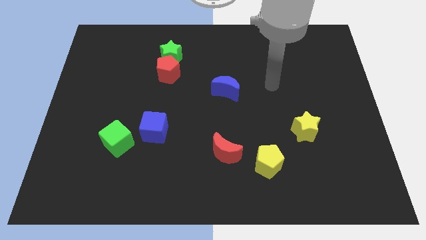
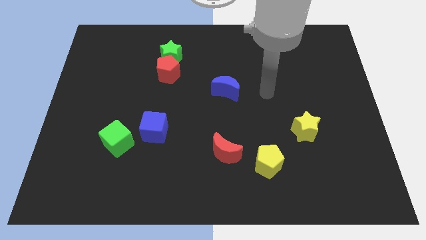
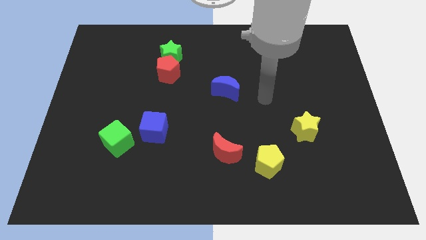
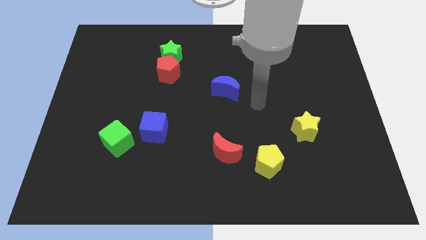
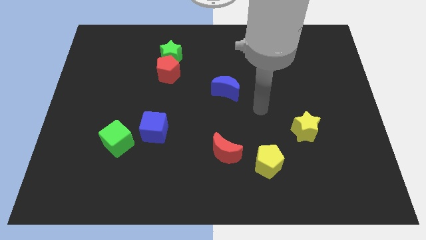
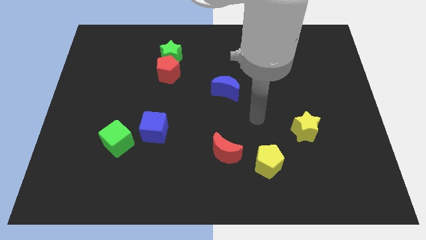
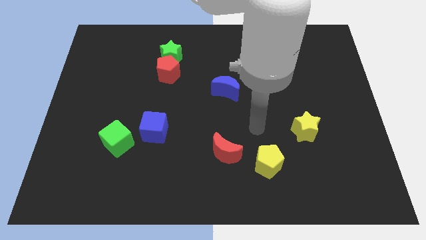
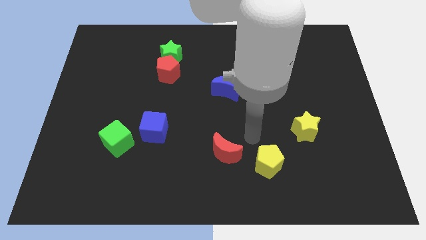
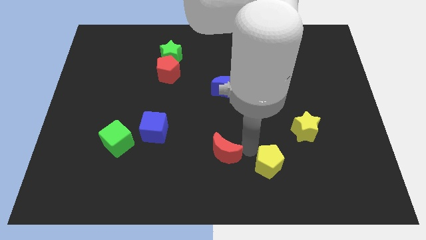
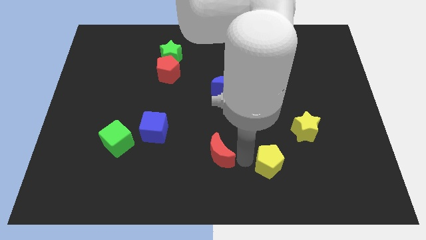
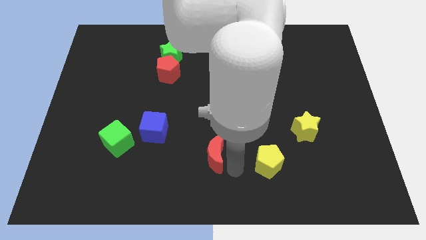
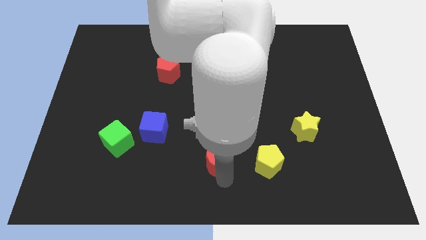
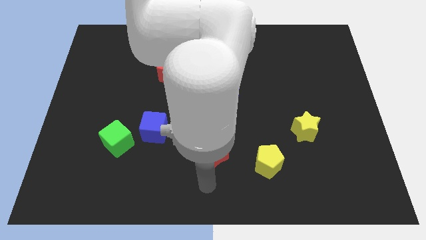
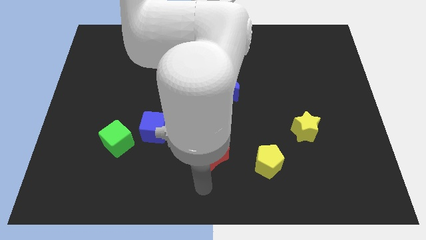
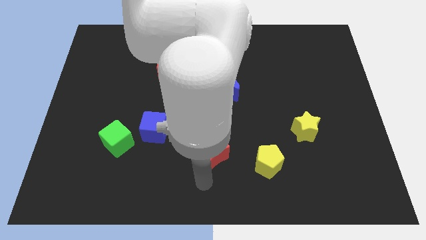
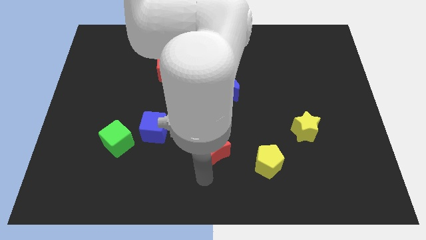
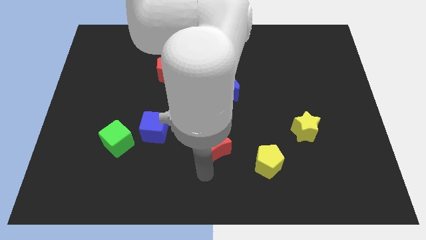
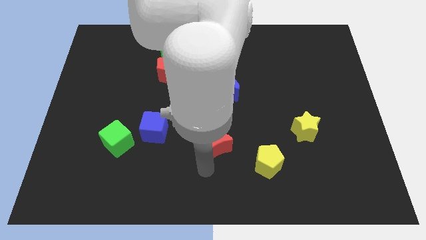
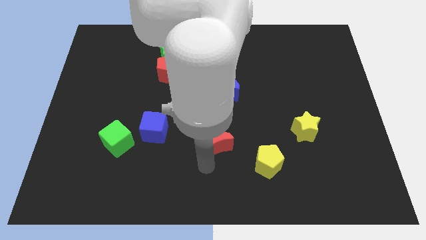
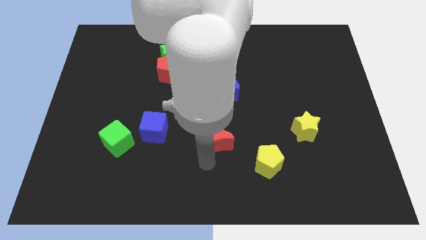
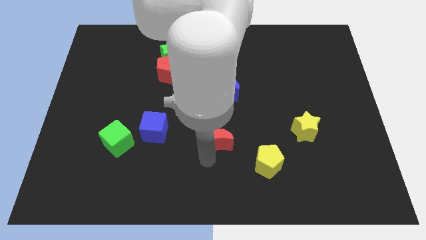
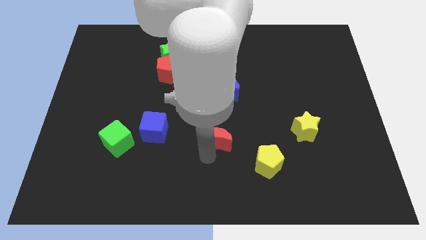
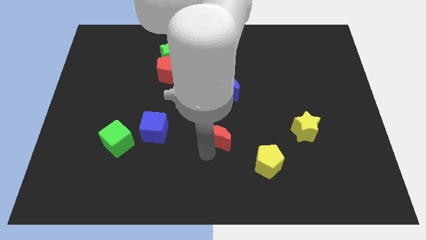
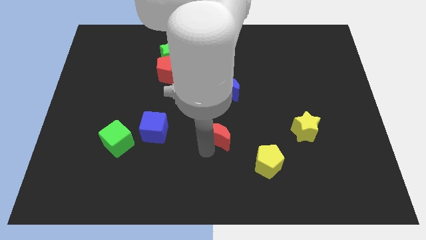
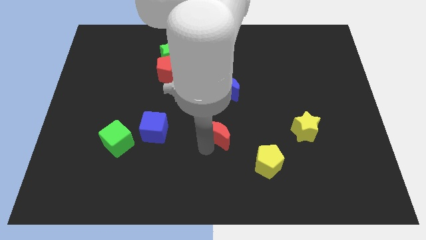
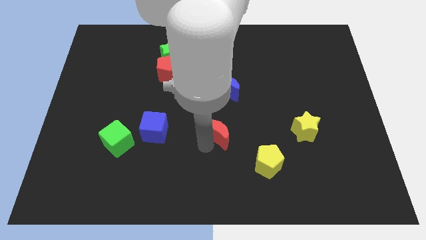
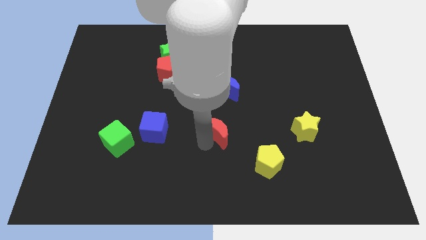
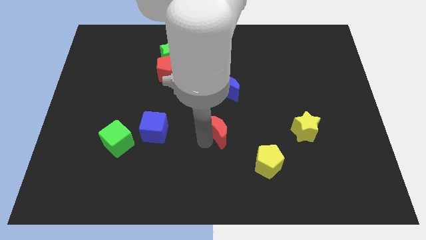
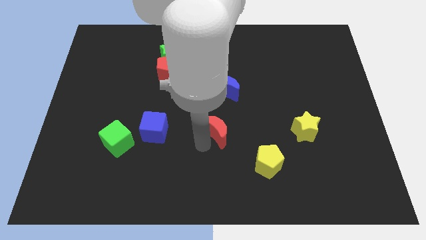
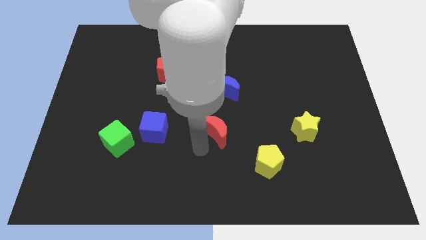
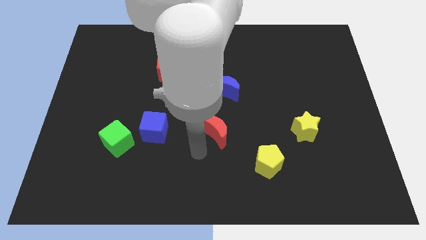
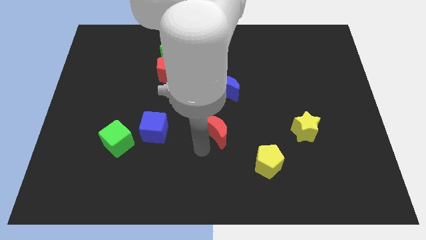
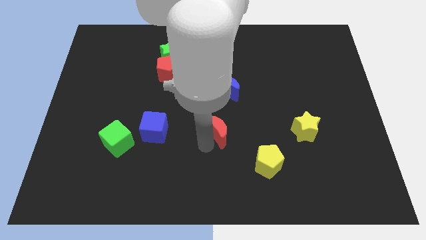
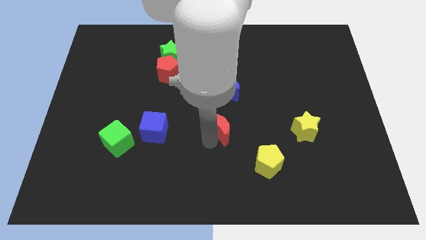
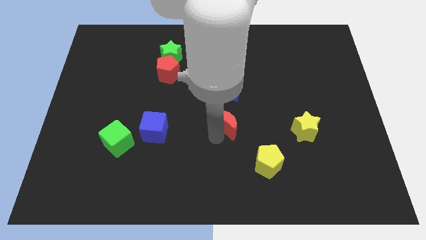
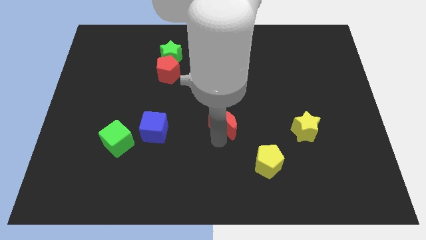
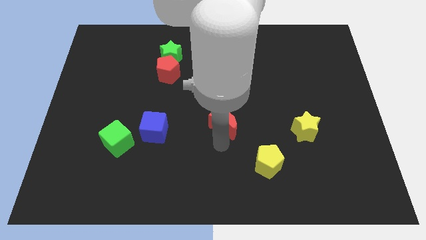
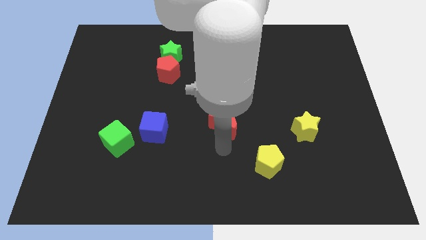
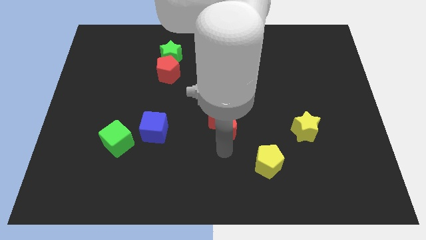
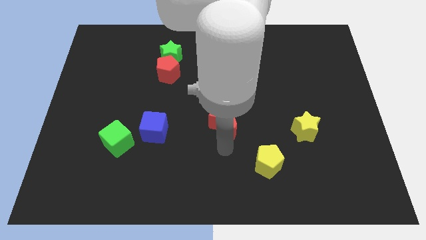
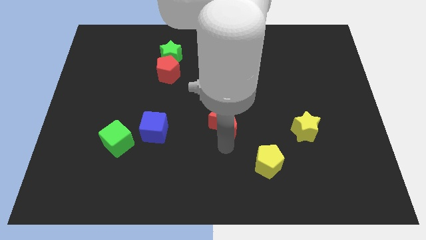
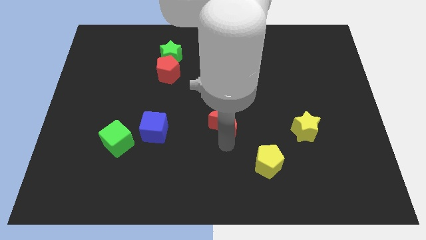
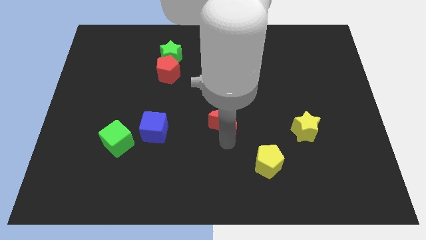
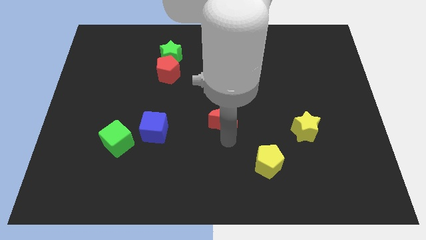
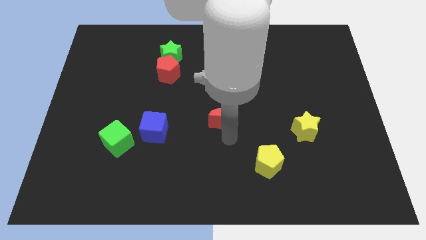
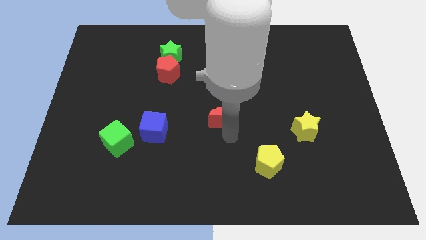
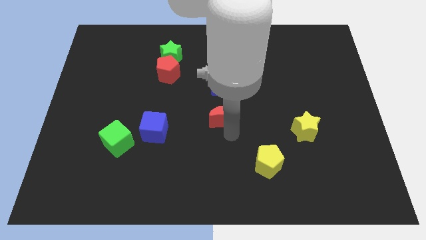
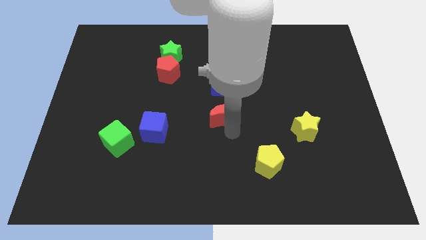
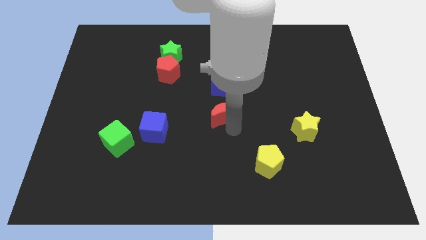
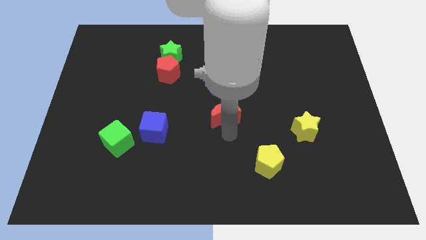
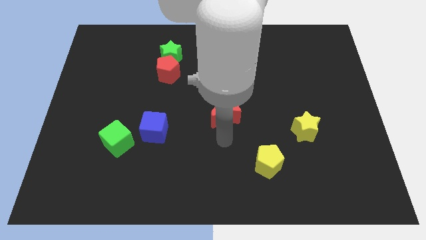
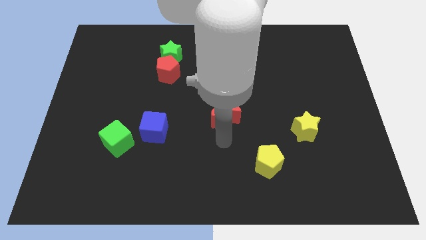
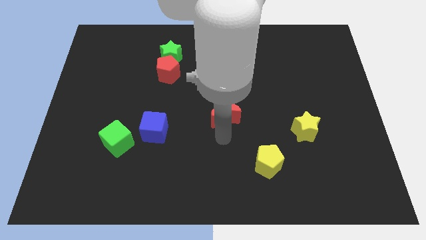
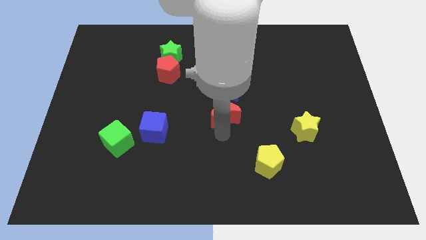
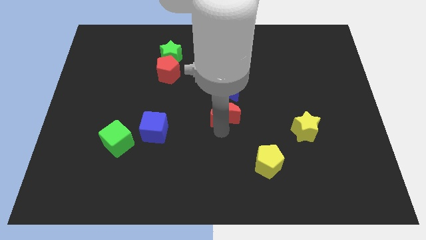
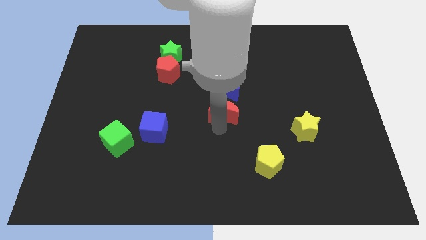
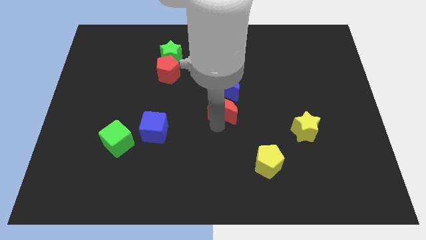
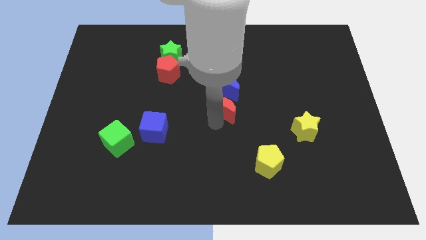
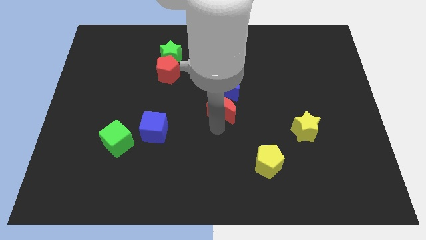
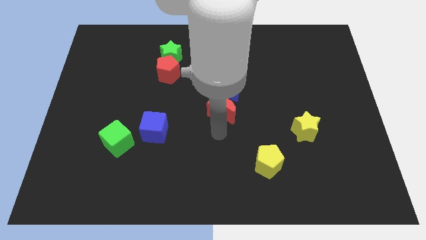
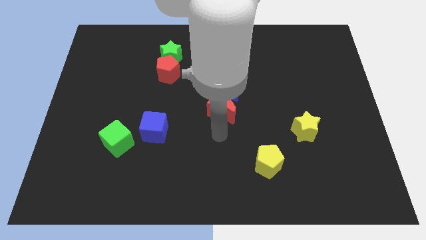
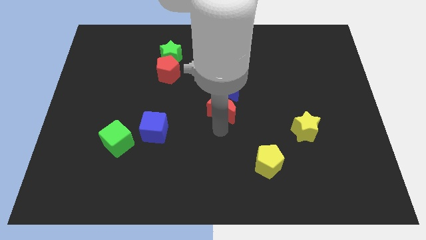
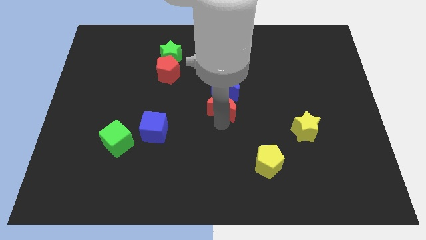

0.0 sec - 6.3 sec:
move the red moon close to the blue moon

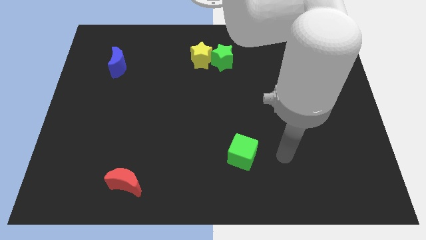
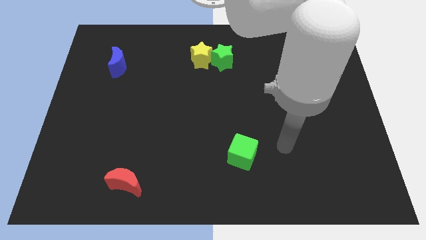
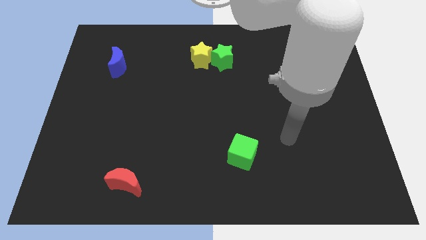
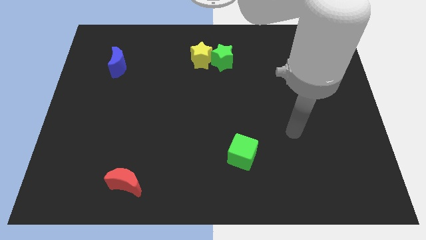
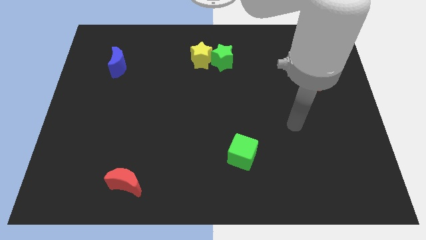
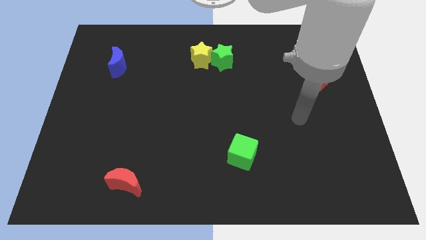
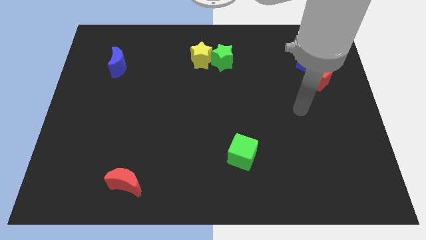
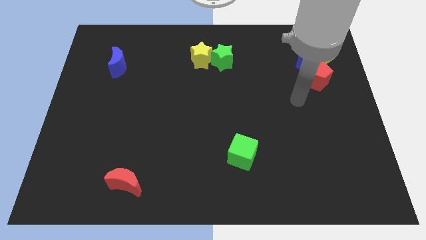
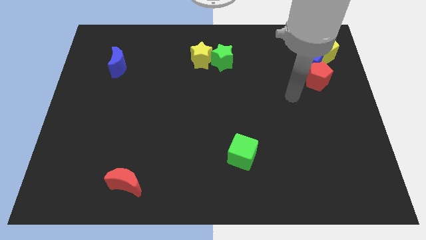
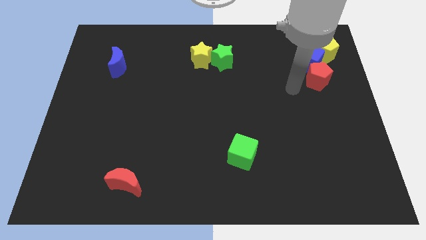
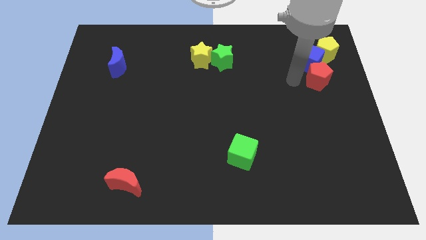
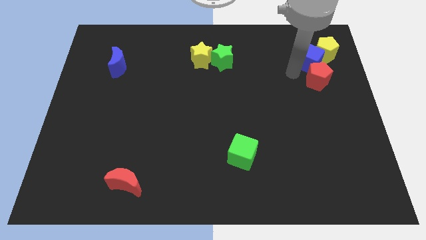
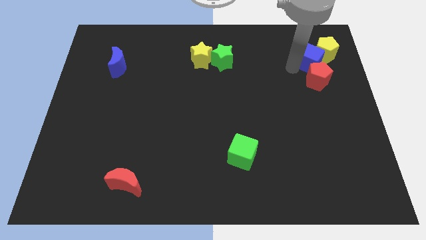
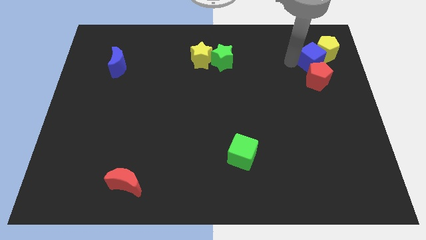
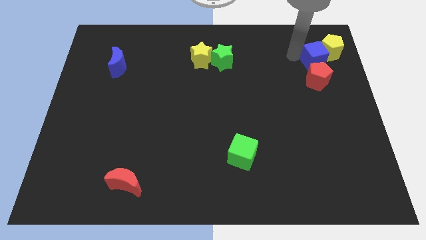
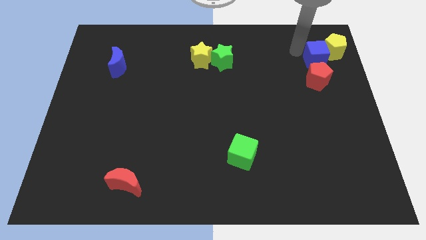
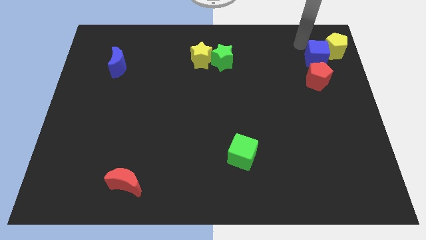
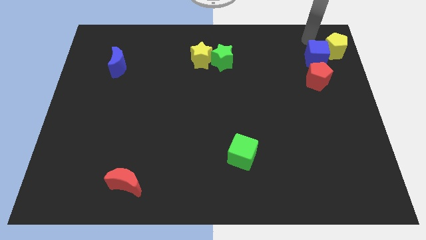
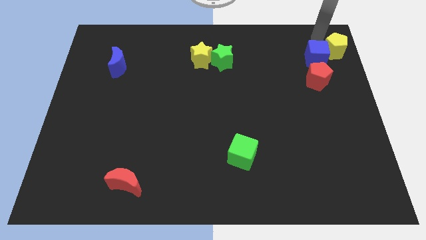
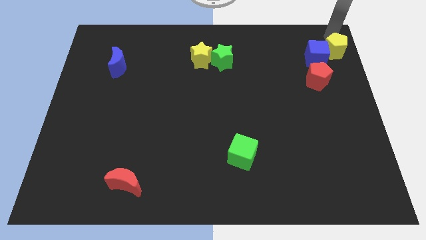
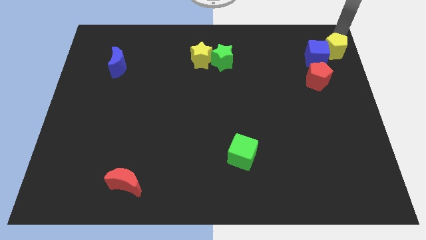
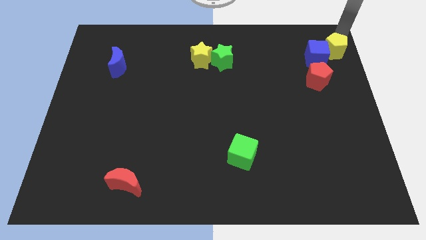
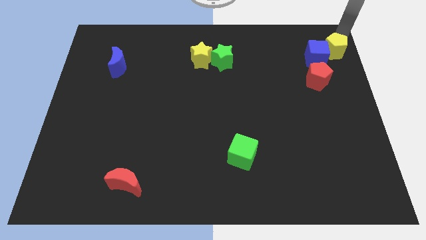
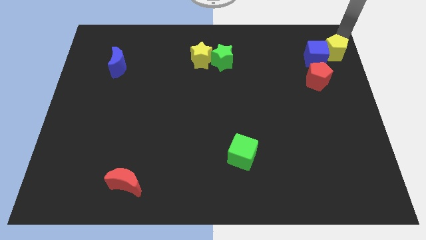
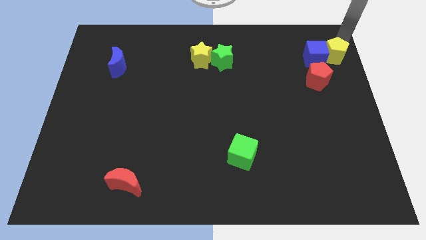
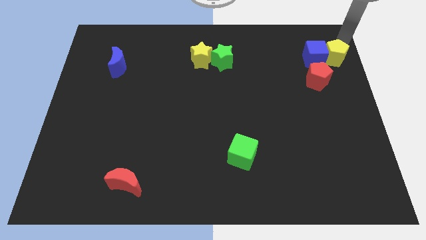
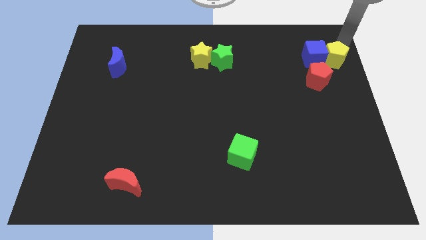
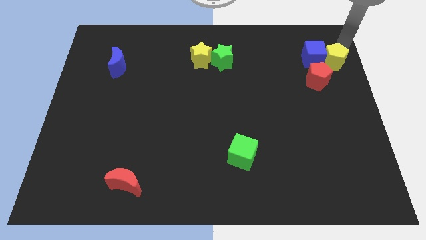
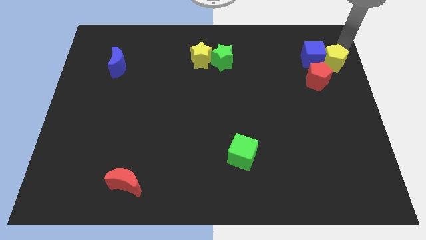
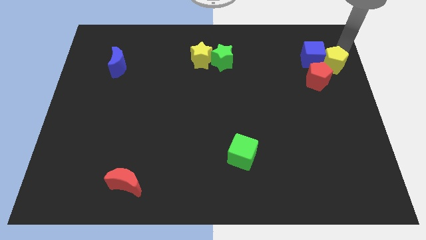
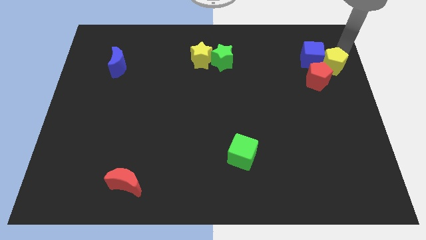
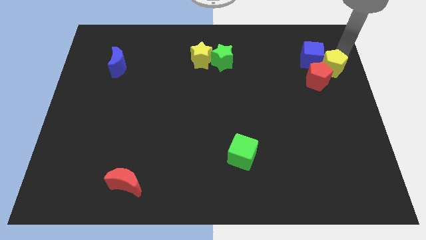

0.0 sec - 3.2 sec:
slide the yellow pentagon towards the red pentagon
